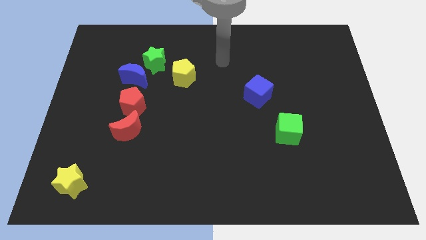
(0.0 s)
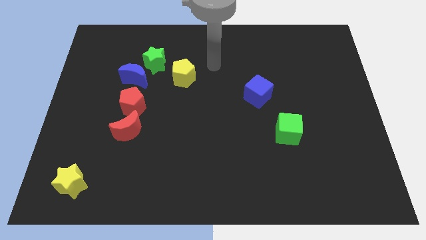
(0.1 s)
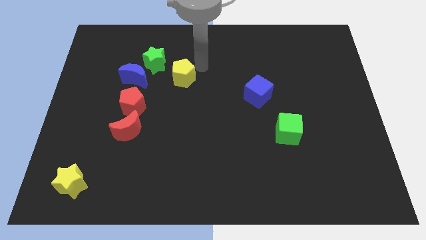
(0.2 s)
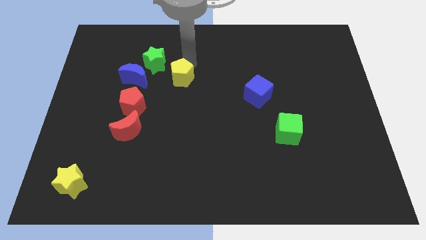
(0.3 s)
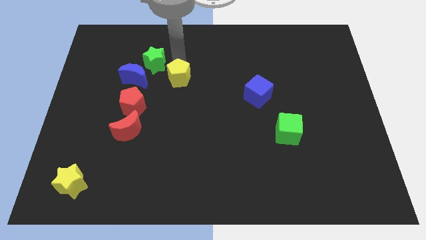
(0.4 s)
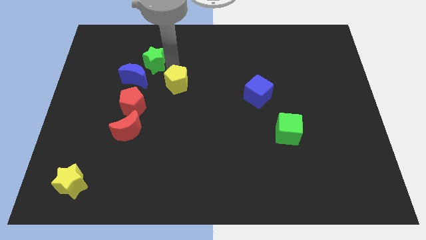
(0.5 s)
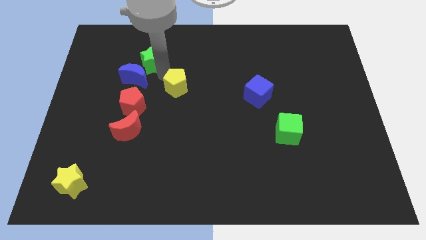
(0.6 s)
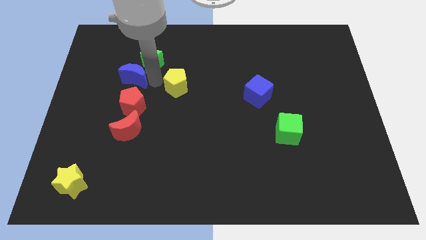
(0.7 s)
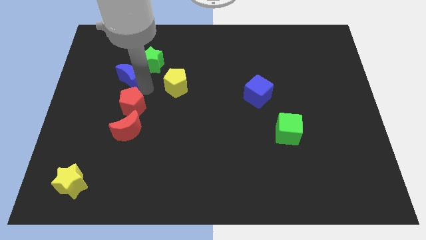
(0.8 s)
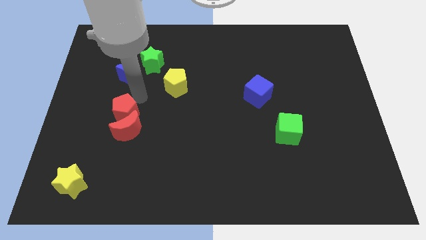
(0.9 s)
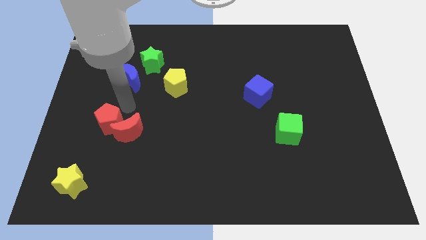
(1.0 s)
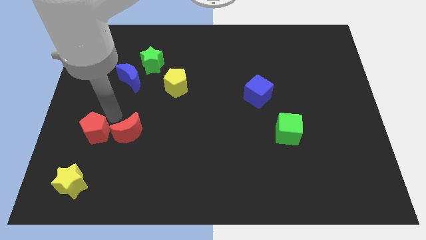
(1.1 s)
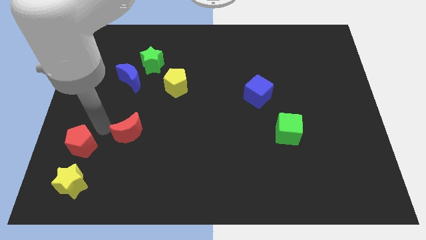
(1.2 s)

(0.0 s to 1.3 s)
separate the red moon from the red pentagon

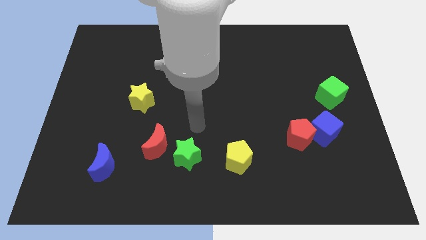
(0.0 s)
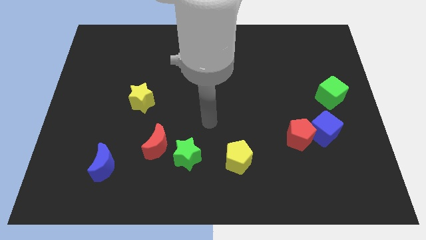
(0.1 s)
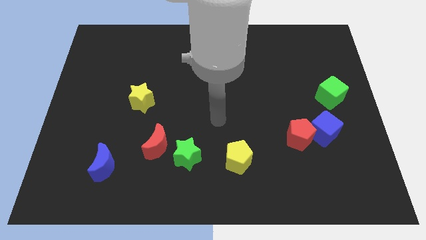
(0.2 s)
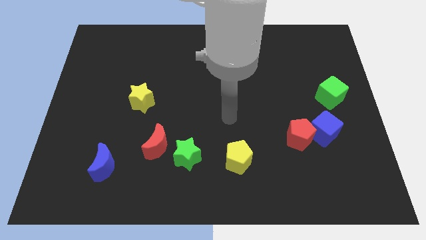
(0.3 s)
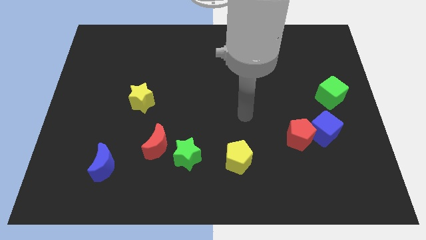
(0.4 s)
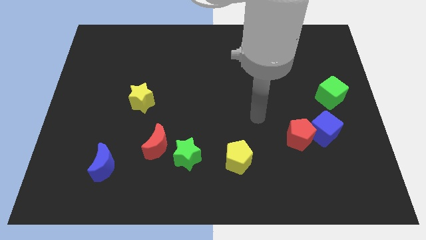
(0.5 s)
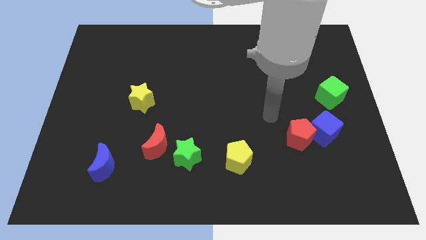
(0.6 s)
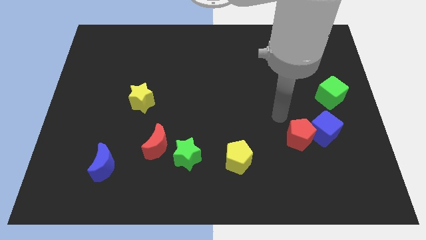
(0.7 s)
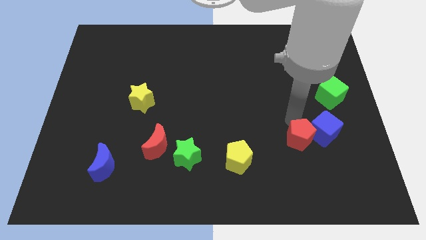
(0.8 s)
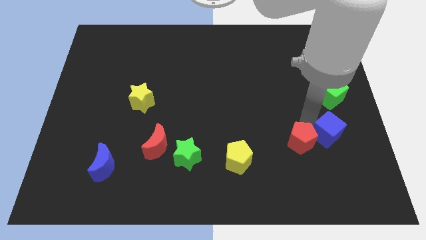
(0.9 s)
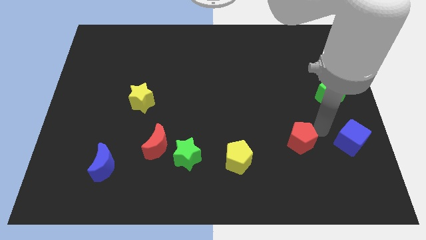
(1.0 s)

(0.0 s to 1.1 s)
separate the red pentagon from the blue cube

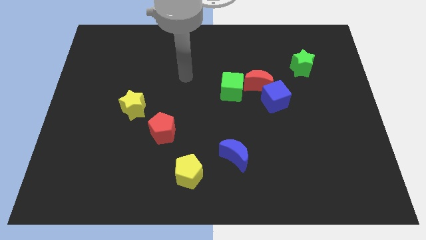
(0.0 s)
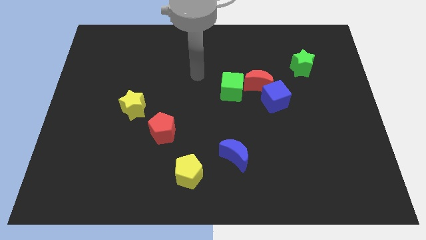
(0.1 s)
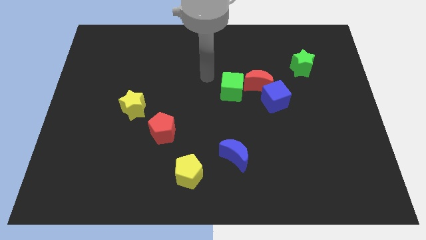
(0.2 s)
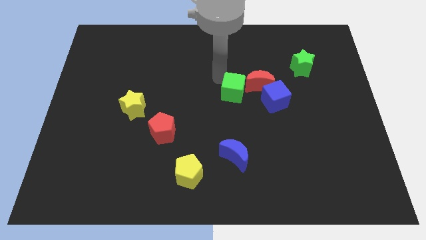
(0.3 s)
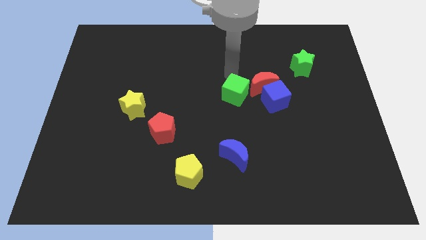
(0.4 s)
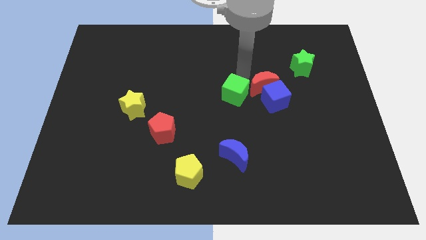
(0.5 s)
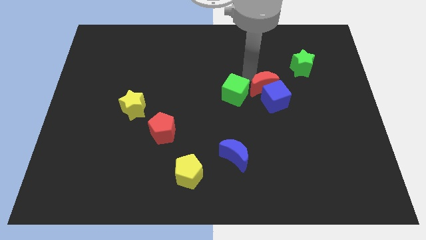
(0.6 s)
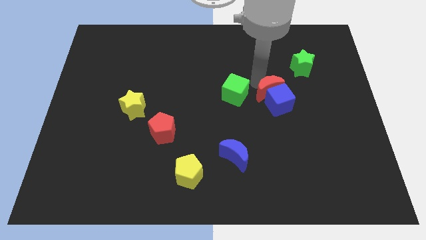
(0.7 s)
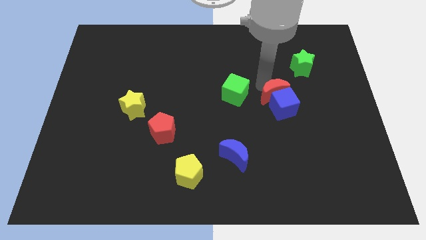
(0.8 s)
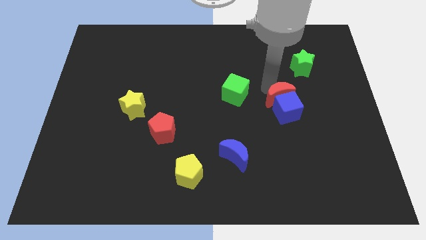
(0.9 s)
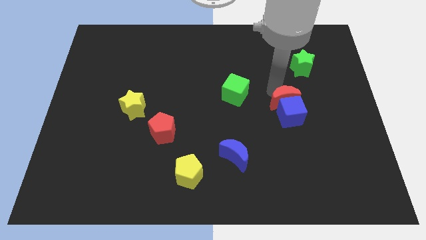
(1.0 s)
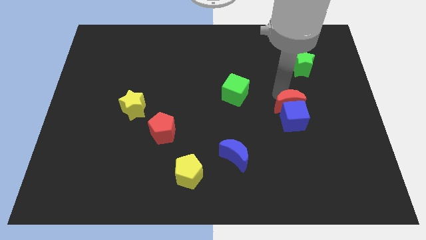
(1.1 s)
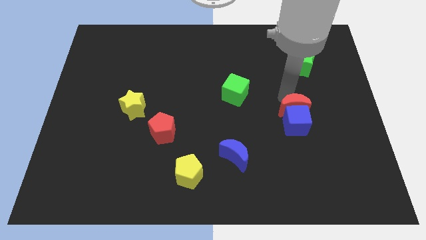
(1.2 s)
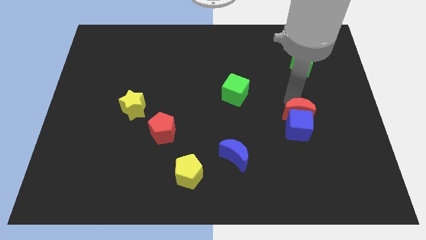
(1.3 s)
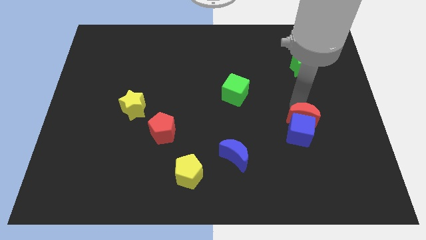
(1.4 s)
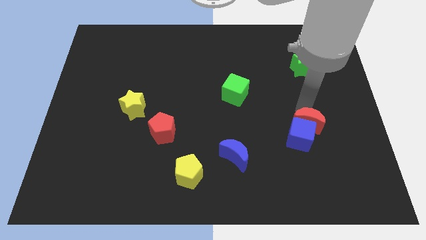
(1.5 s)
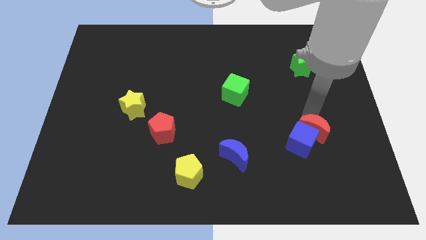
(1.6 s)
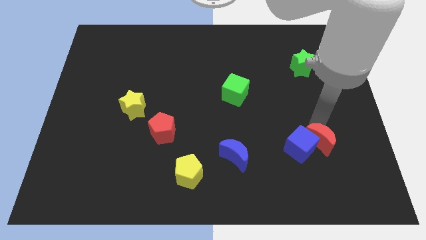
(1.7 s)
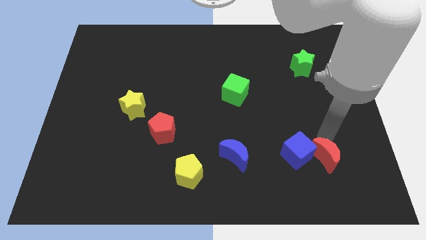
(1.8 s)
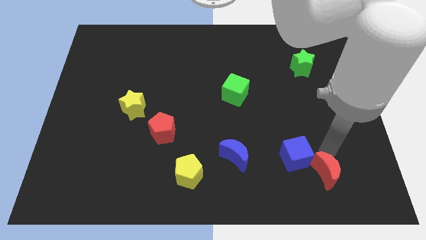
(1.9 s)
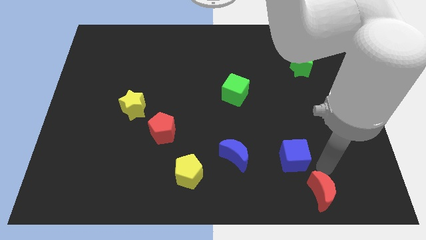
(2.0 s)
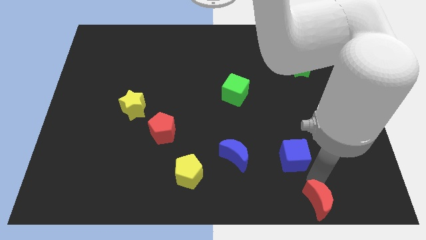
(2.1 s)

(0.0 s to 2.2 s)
separate the blue cube from the red moon

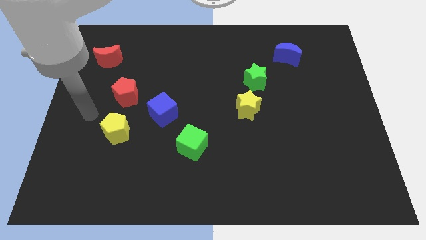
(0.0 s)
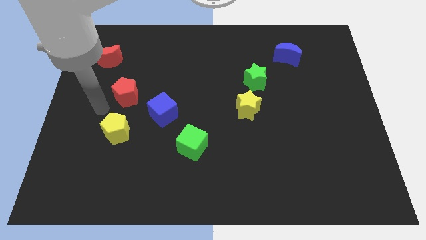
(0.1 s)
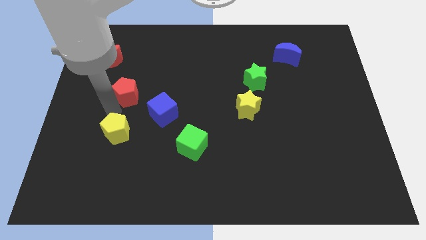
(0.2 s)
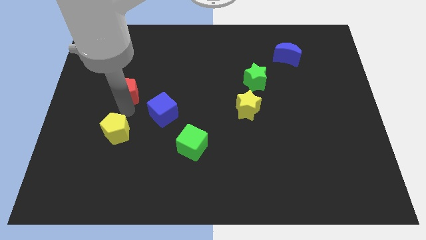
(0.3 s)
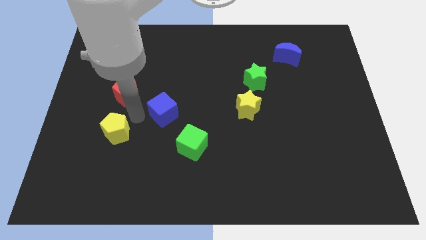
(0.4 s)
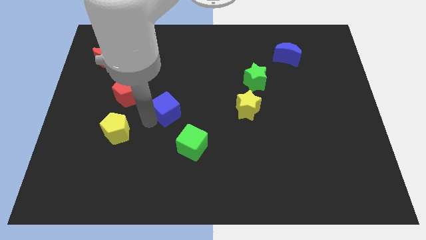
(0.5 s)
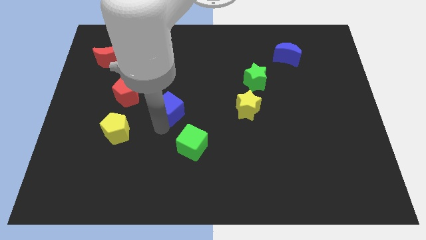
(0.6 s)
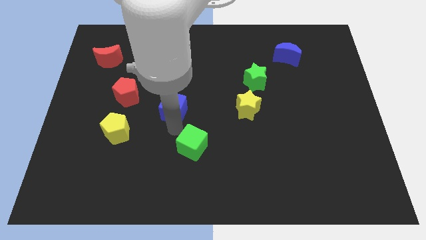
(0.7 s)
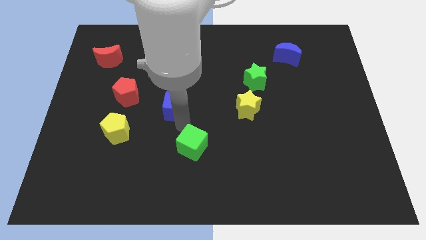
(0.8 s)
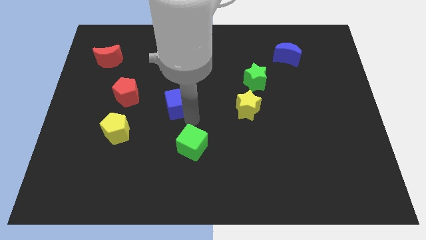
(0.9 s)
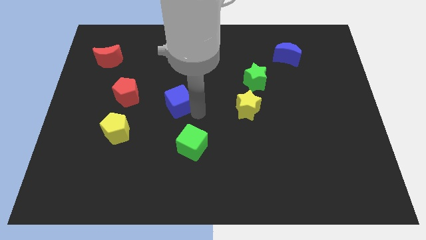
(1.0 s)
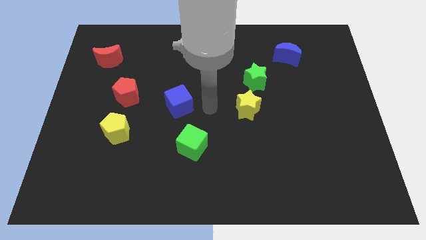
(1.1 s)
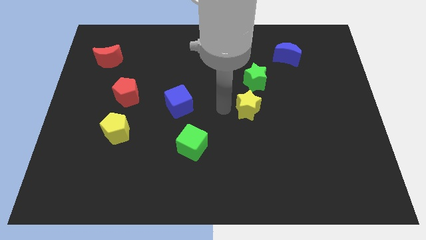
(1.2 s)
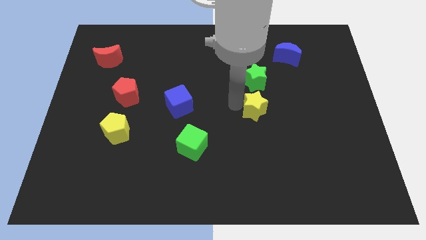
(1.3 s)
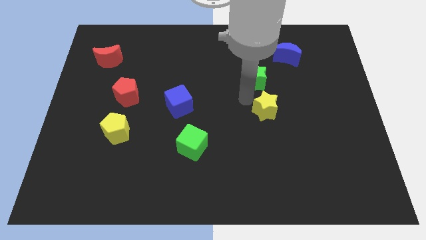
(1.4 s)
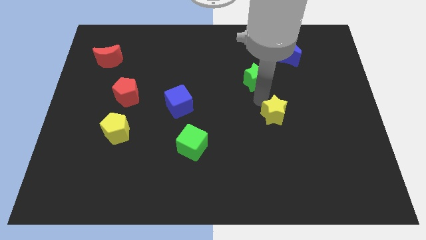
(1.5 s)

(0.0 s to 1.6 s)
separate the green star from the yellow star

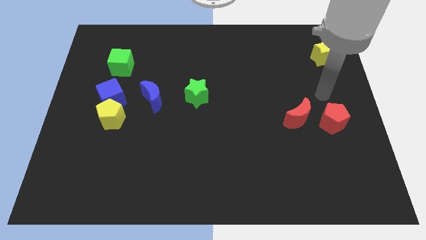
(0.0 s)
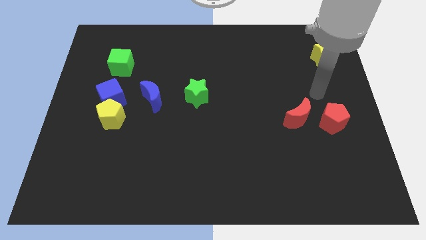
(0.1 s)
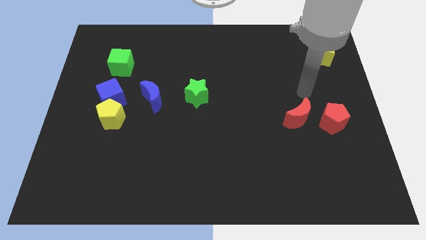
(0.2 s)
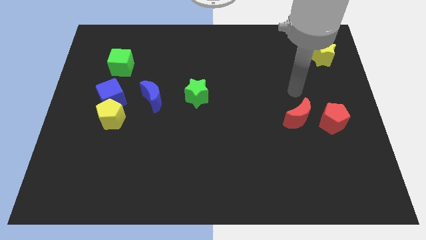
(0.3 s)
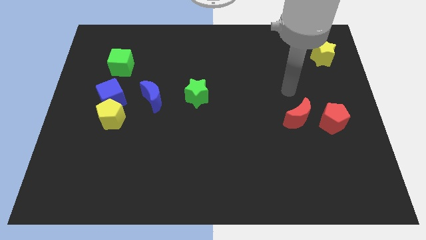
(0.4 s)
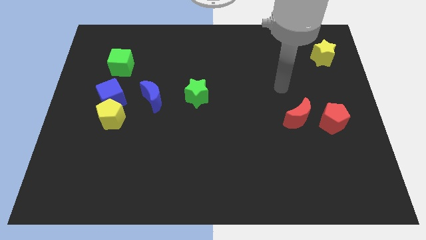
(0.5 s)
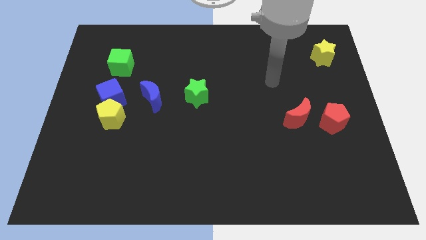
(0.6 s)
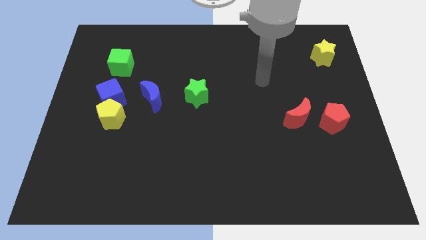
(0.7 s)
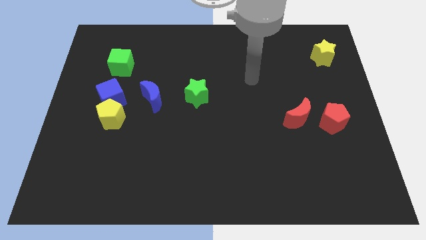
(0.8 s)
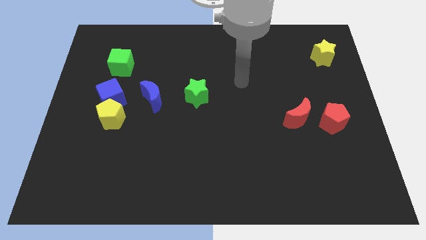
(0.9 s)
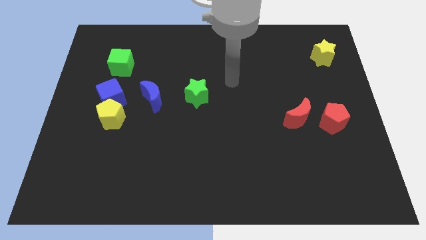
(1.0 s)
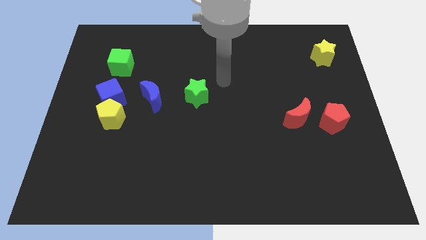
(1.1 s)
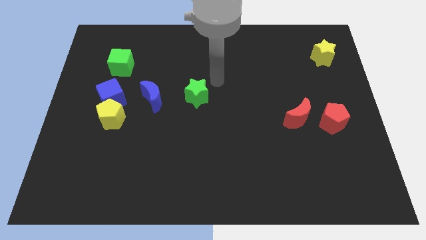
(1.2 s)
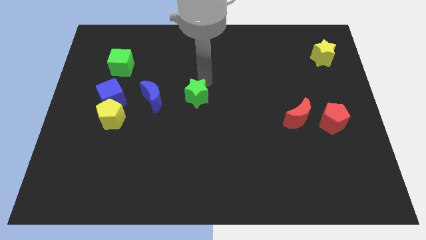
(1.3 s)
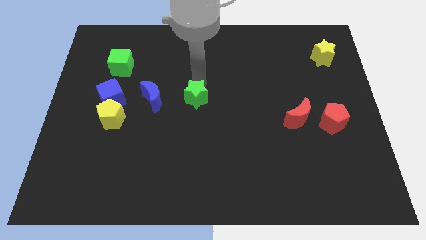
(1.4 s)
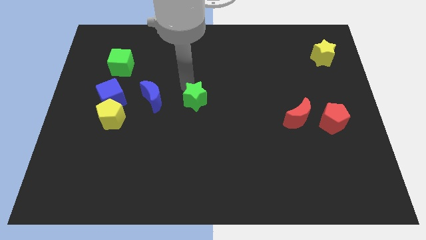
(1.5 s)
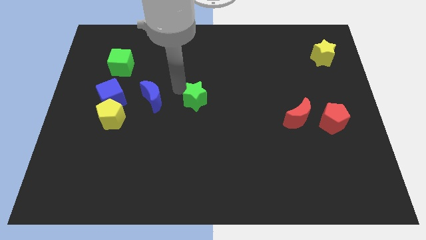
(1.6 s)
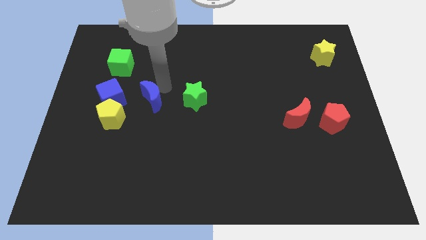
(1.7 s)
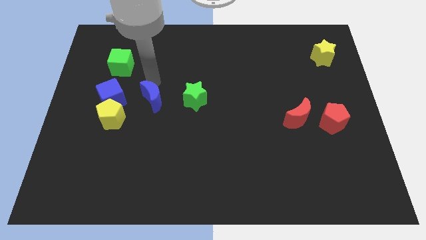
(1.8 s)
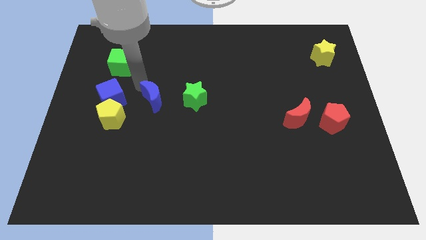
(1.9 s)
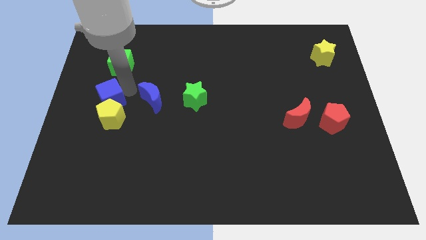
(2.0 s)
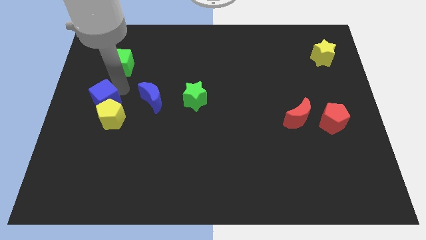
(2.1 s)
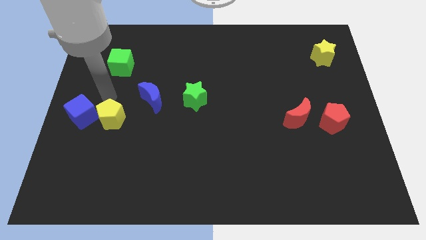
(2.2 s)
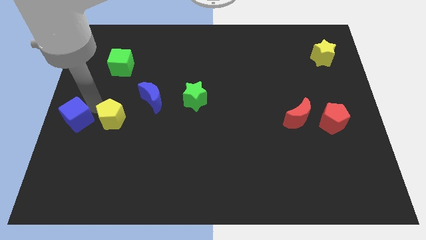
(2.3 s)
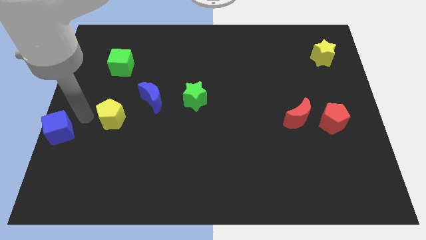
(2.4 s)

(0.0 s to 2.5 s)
pull the yellow pentagon apart from the blue cube

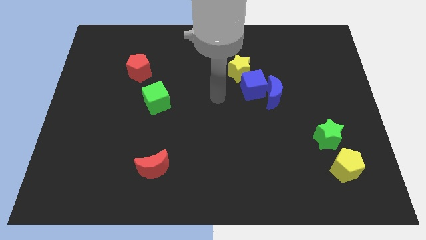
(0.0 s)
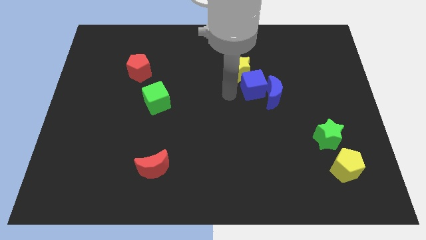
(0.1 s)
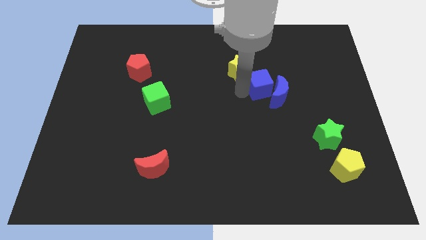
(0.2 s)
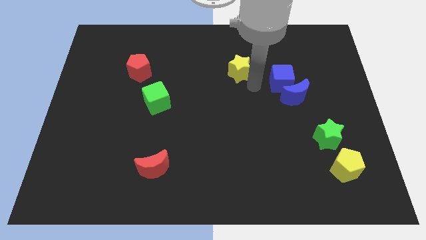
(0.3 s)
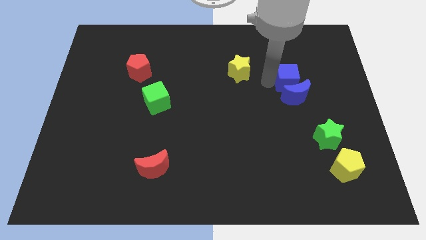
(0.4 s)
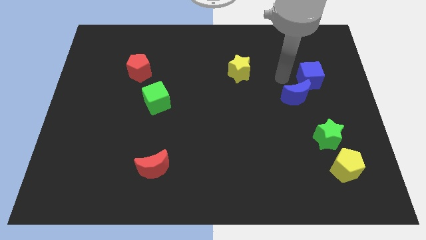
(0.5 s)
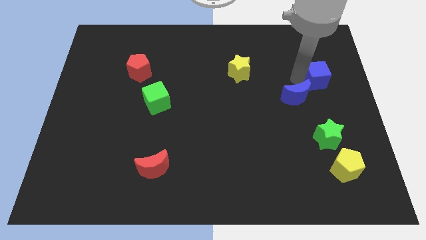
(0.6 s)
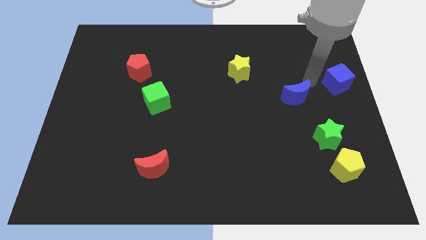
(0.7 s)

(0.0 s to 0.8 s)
separate the blue moon from the blue cube
